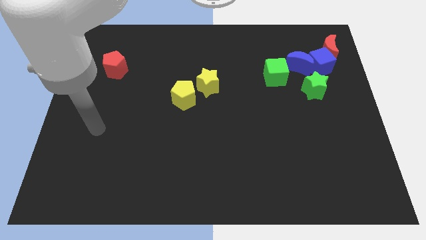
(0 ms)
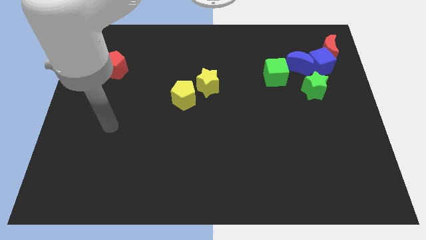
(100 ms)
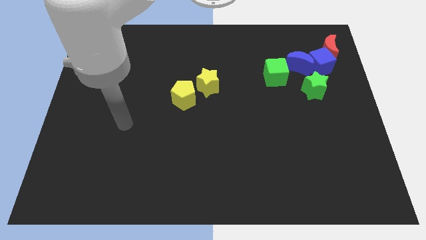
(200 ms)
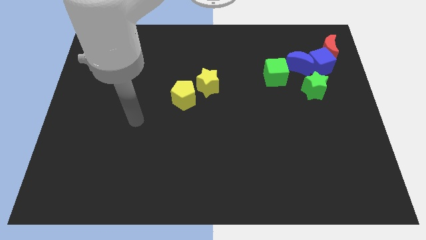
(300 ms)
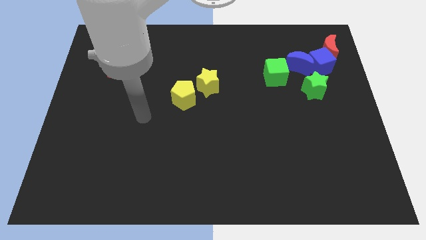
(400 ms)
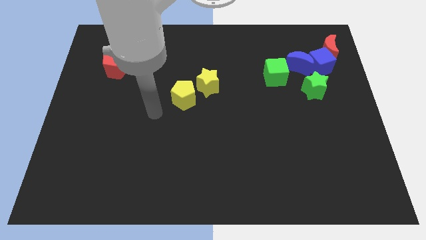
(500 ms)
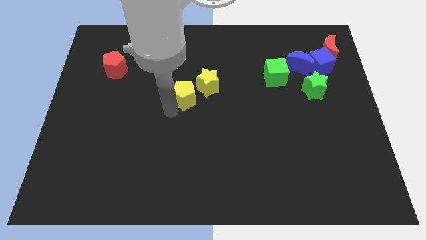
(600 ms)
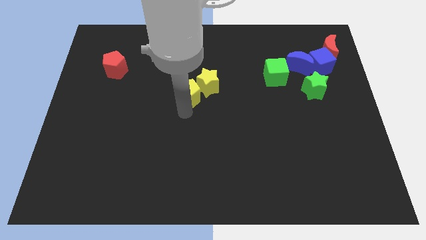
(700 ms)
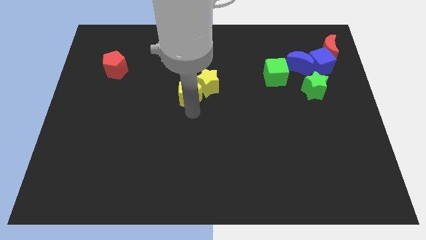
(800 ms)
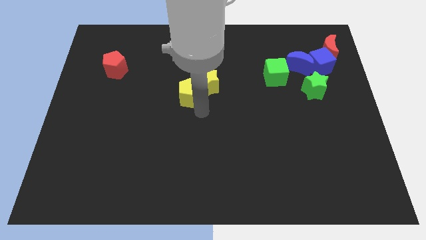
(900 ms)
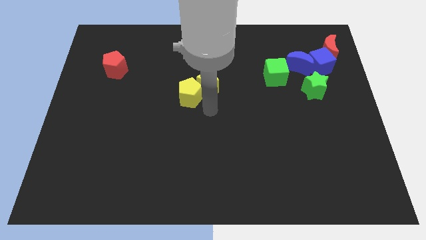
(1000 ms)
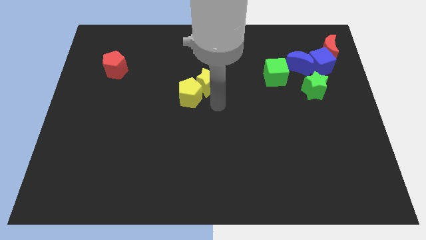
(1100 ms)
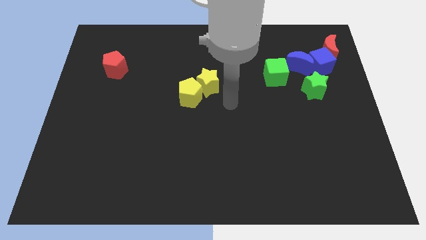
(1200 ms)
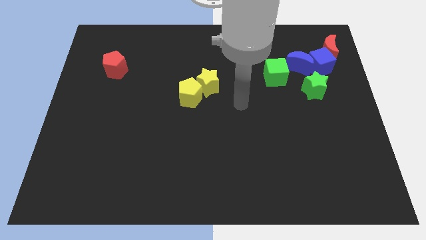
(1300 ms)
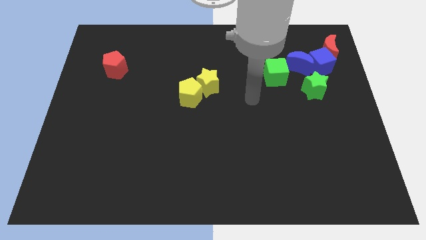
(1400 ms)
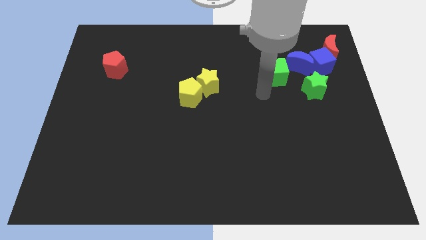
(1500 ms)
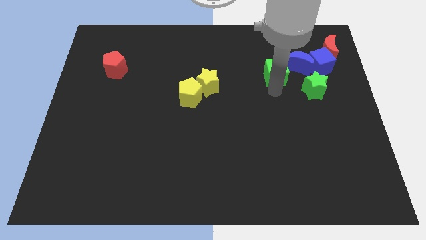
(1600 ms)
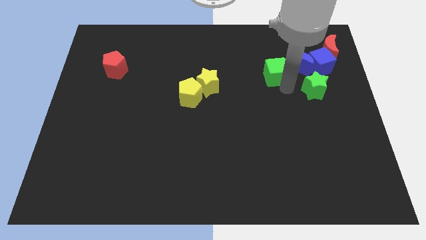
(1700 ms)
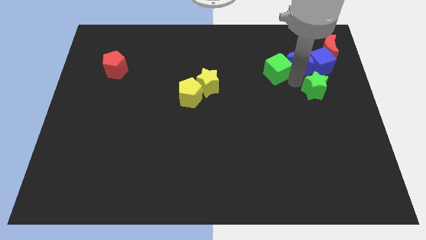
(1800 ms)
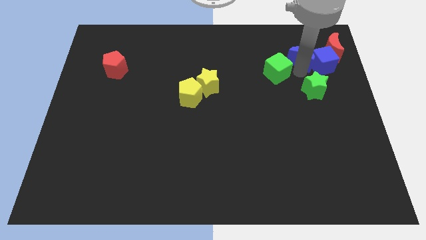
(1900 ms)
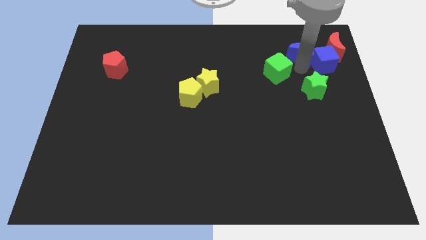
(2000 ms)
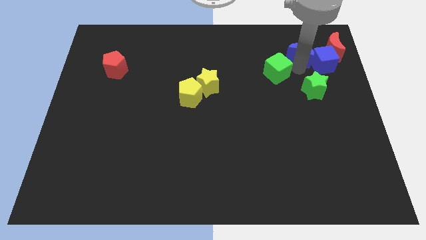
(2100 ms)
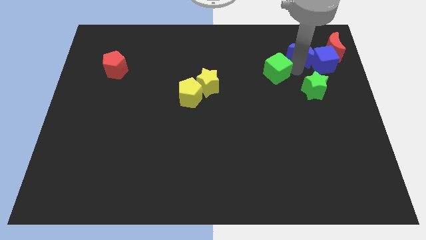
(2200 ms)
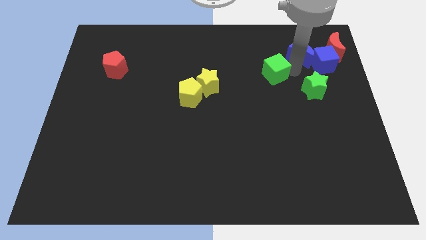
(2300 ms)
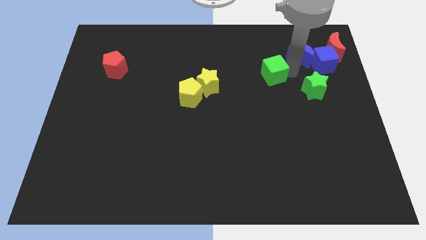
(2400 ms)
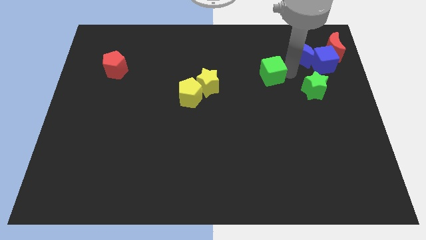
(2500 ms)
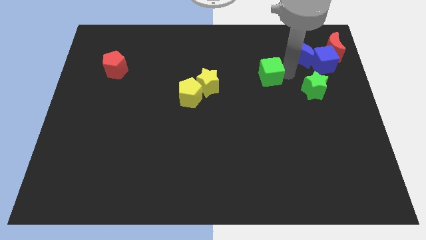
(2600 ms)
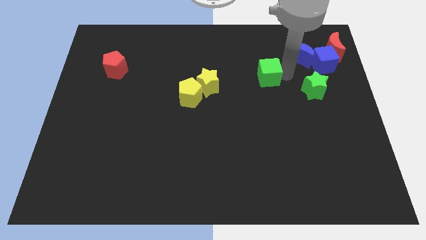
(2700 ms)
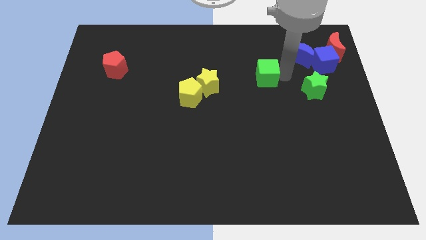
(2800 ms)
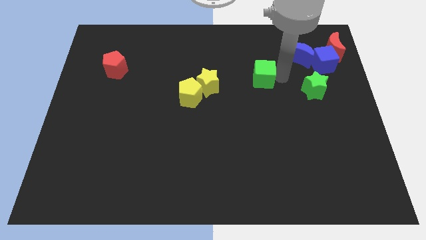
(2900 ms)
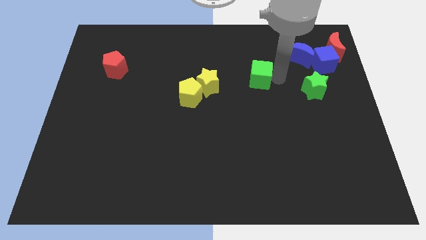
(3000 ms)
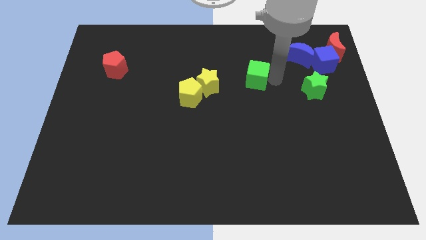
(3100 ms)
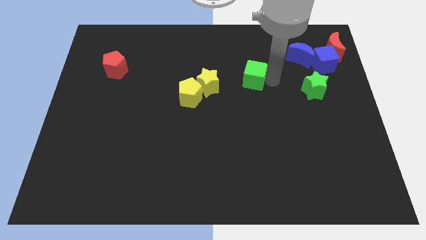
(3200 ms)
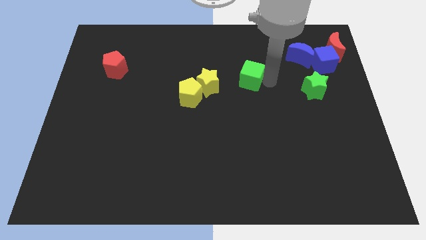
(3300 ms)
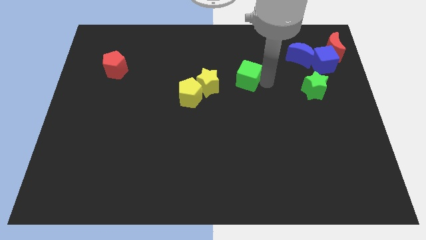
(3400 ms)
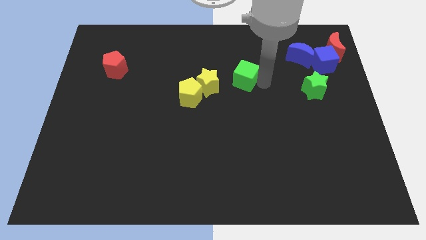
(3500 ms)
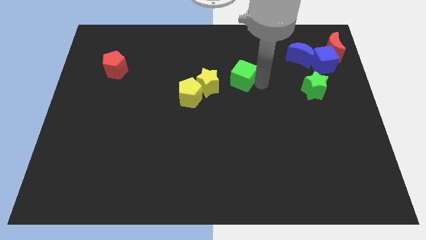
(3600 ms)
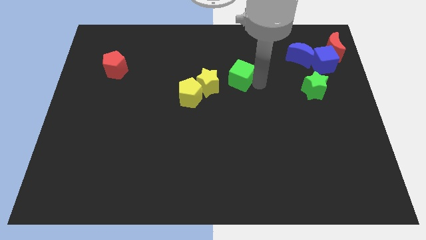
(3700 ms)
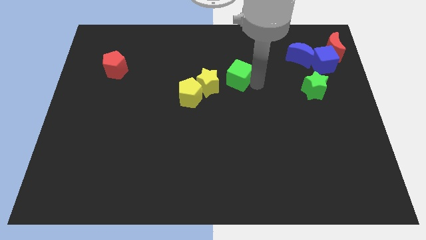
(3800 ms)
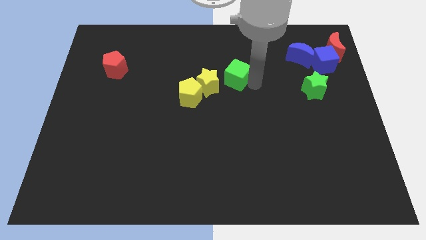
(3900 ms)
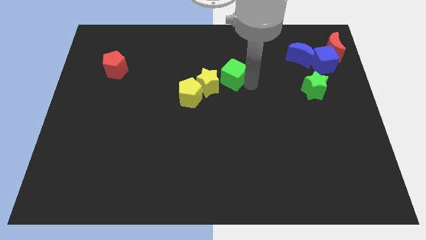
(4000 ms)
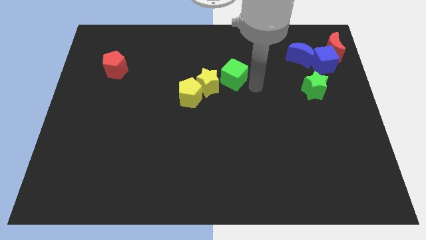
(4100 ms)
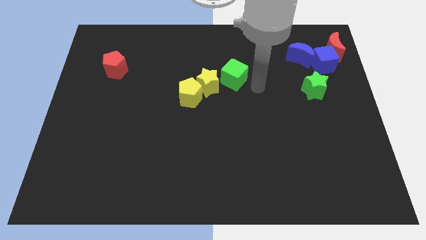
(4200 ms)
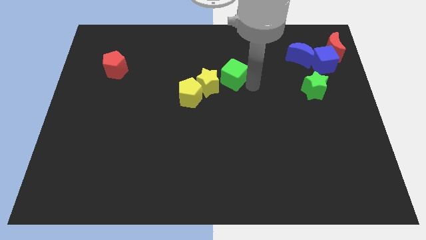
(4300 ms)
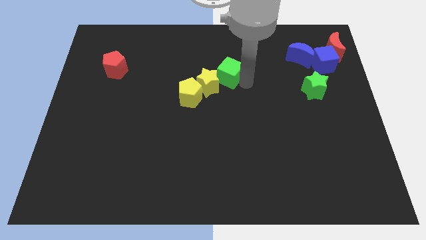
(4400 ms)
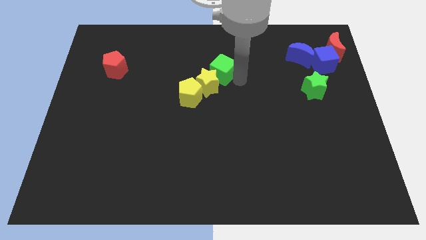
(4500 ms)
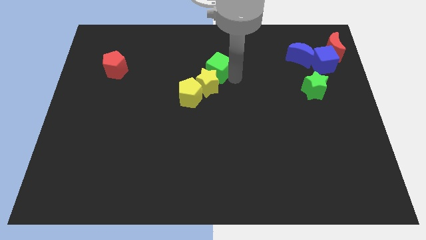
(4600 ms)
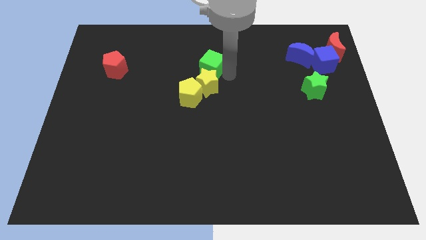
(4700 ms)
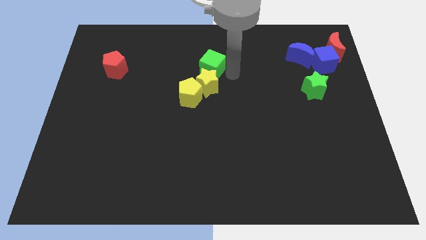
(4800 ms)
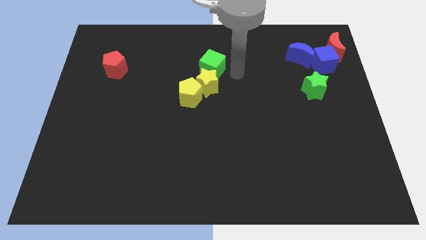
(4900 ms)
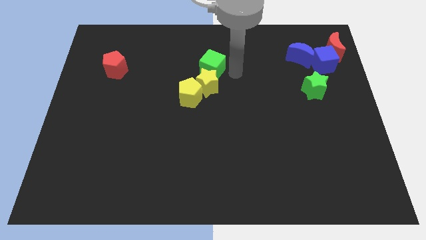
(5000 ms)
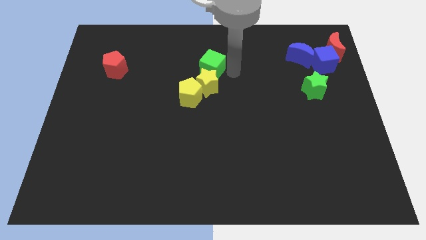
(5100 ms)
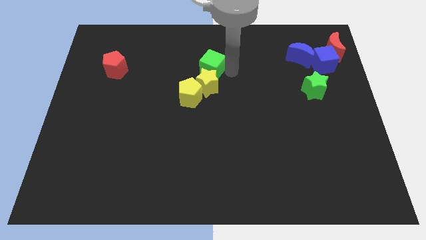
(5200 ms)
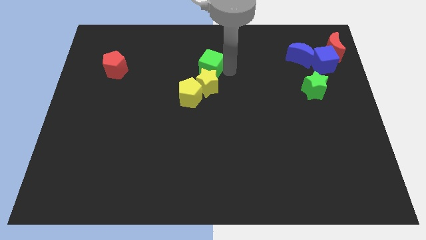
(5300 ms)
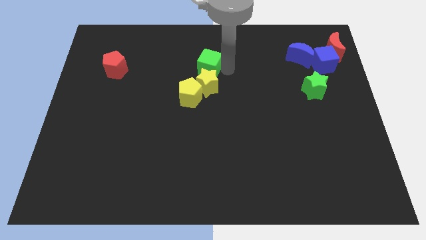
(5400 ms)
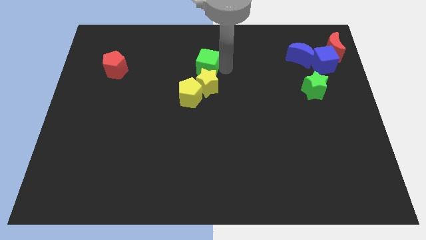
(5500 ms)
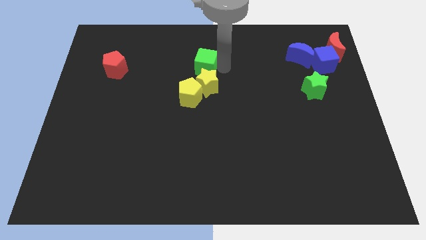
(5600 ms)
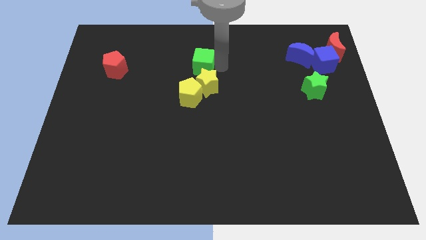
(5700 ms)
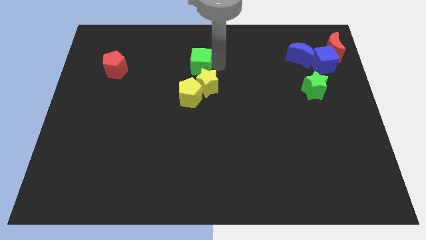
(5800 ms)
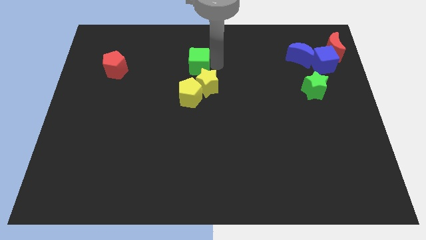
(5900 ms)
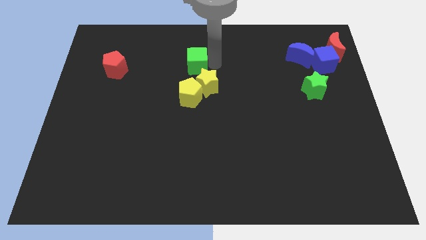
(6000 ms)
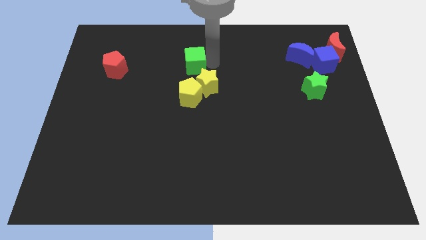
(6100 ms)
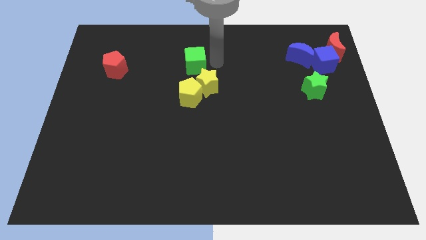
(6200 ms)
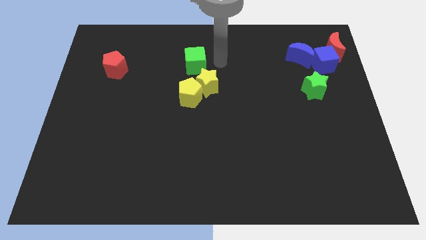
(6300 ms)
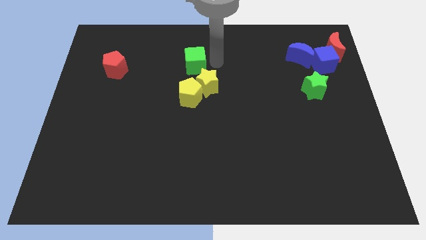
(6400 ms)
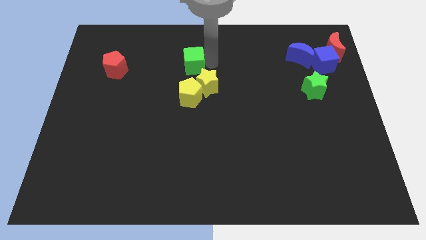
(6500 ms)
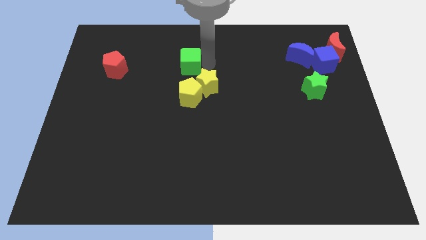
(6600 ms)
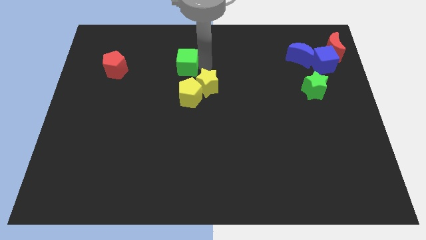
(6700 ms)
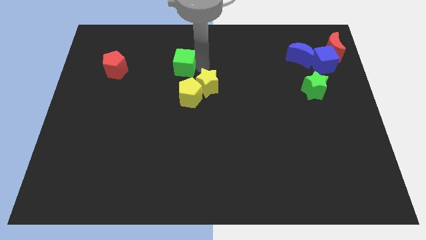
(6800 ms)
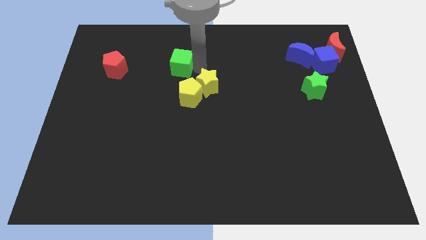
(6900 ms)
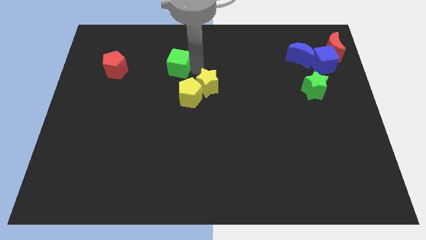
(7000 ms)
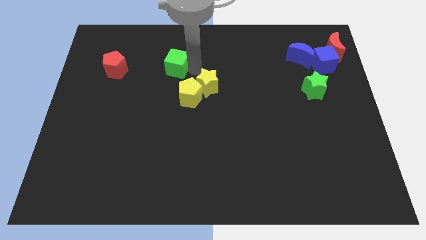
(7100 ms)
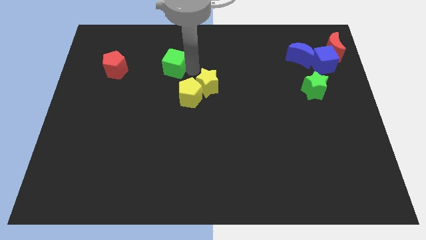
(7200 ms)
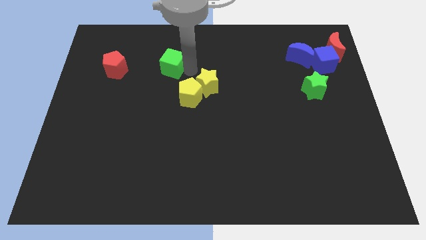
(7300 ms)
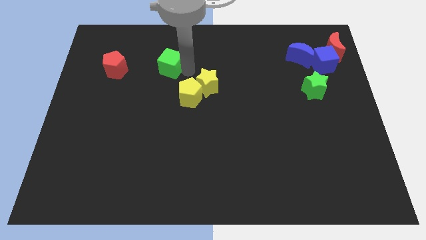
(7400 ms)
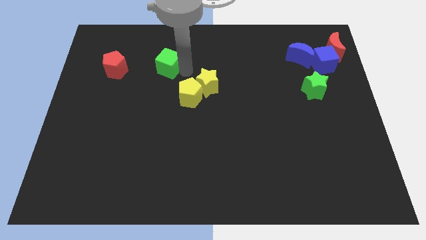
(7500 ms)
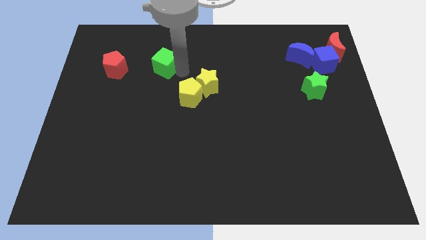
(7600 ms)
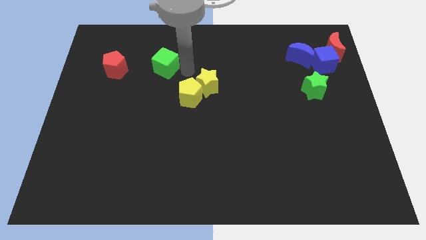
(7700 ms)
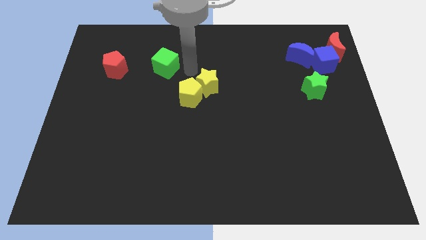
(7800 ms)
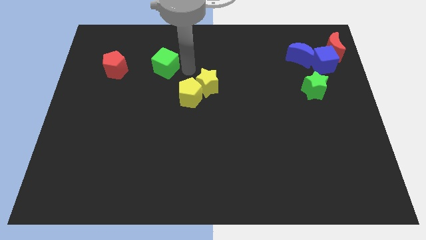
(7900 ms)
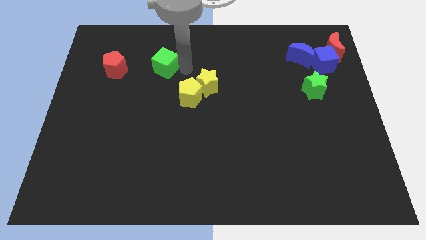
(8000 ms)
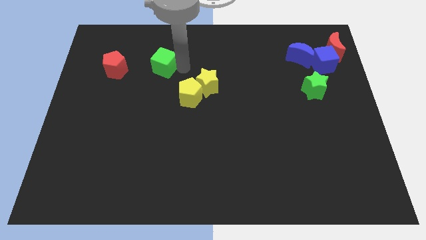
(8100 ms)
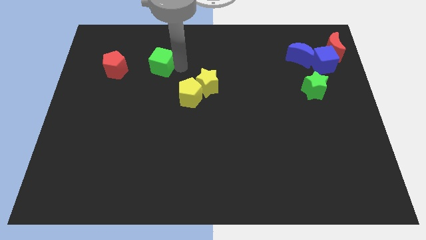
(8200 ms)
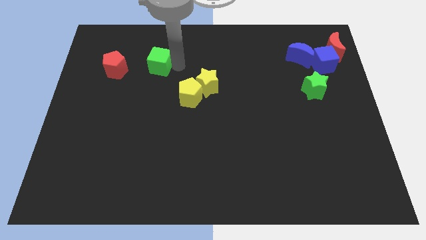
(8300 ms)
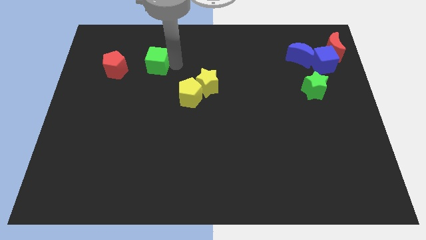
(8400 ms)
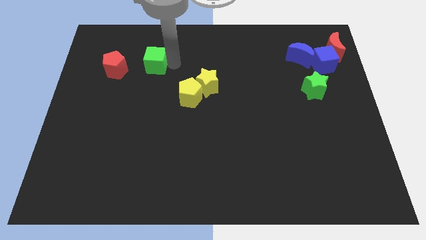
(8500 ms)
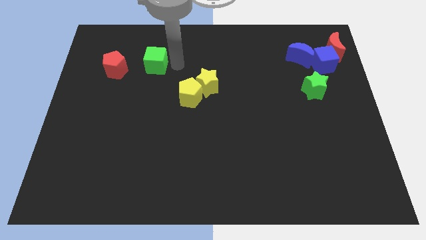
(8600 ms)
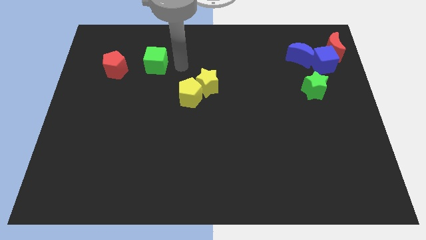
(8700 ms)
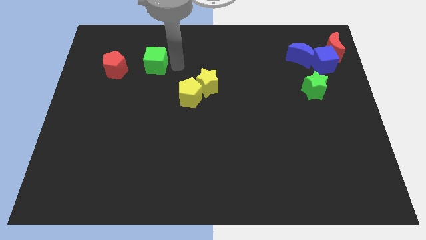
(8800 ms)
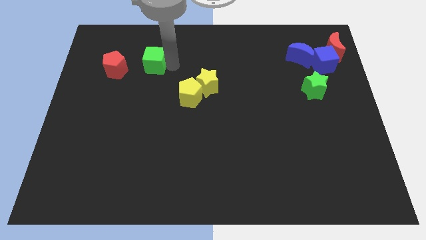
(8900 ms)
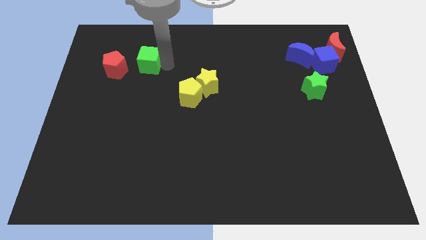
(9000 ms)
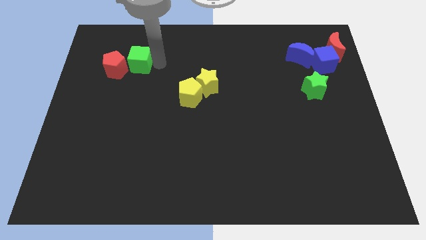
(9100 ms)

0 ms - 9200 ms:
push the green cube to the red pentagon
